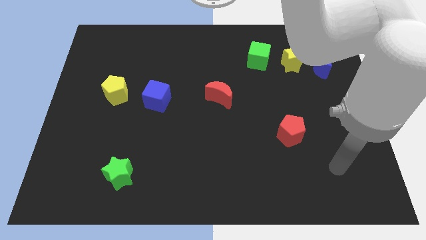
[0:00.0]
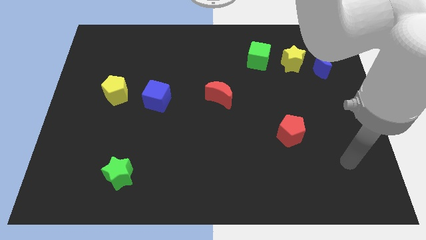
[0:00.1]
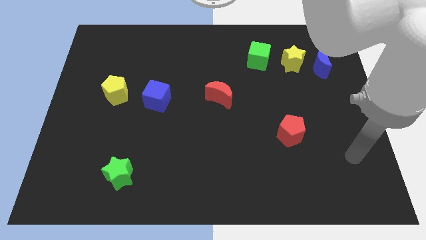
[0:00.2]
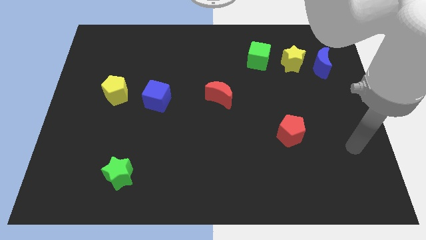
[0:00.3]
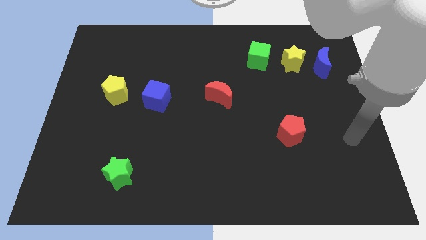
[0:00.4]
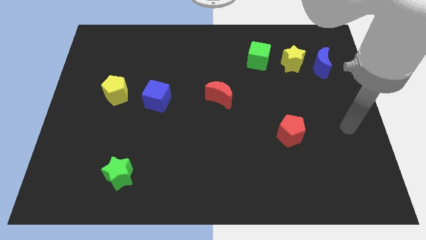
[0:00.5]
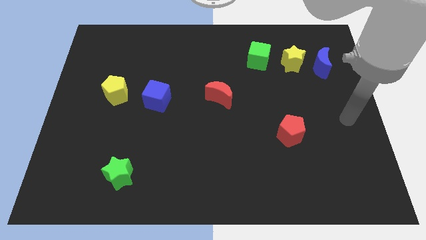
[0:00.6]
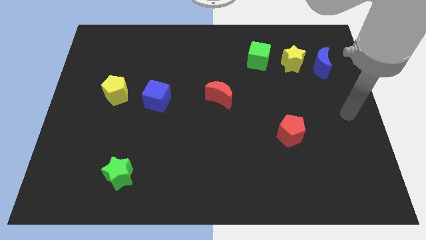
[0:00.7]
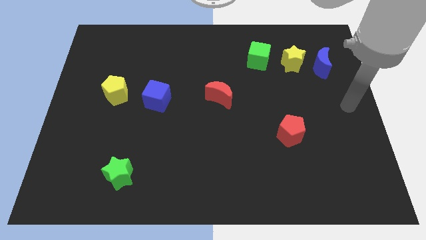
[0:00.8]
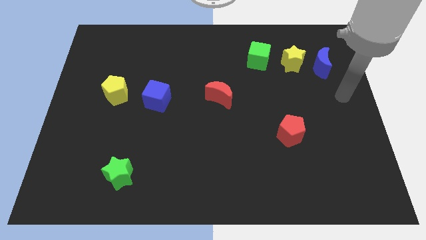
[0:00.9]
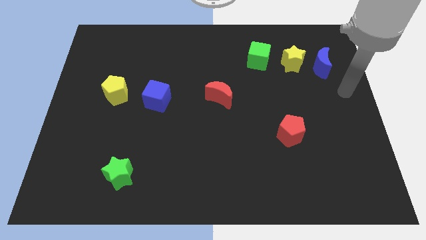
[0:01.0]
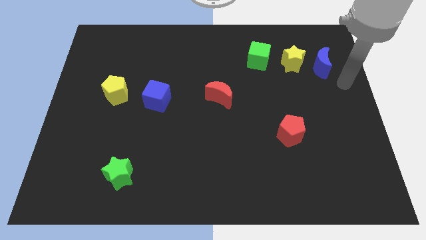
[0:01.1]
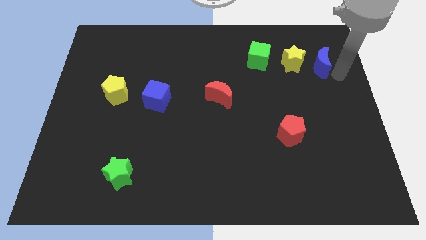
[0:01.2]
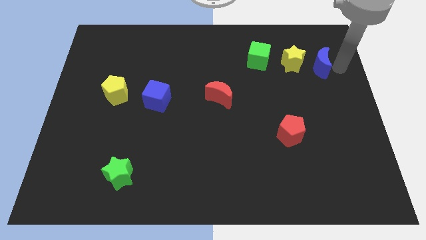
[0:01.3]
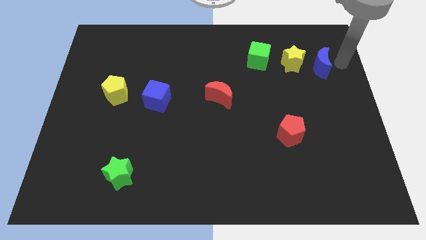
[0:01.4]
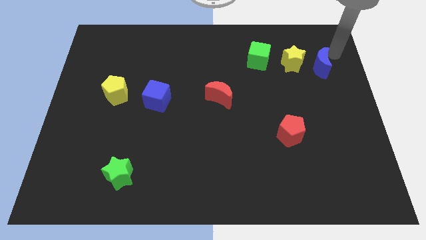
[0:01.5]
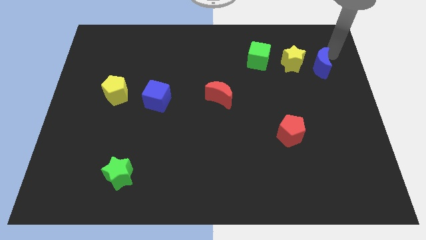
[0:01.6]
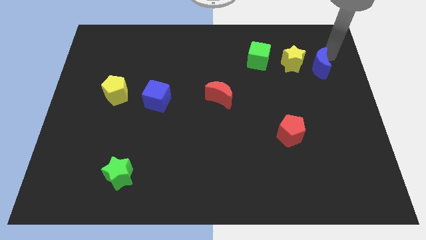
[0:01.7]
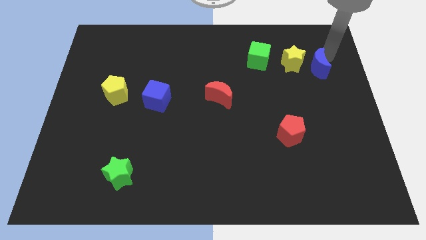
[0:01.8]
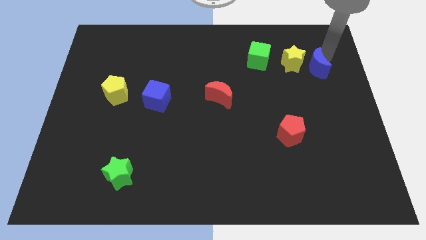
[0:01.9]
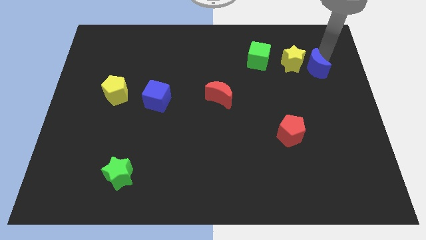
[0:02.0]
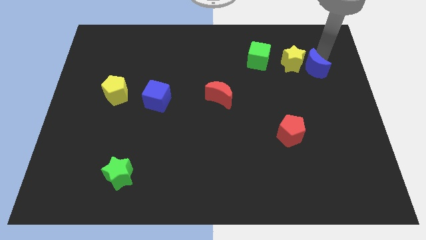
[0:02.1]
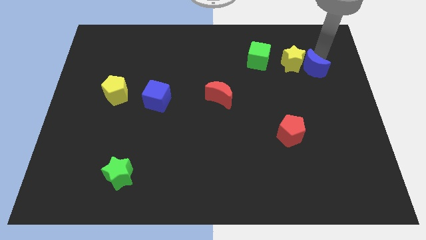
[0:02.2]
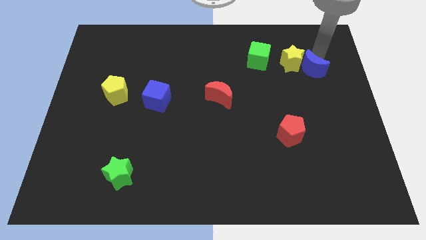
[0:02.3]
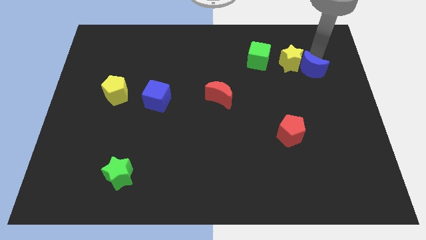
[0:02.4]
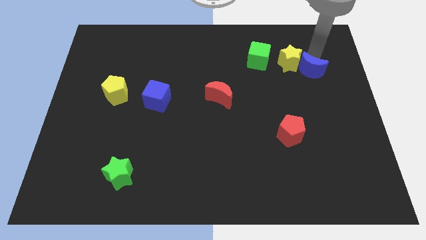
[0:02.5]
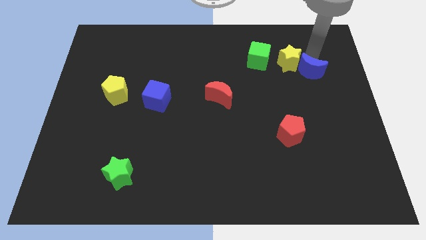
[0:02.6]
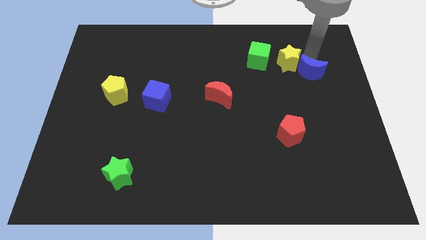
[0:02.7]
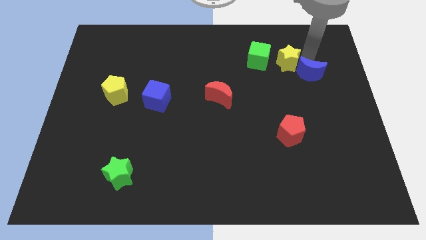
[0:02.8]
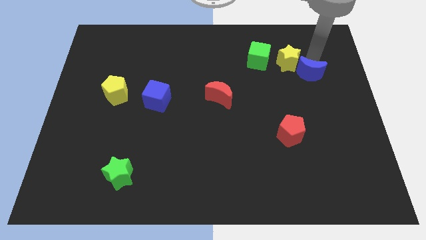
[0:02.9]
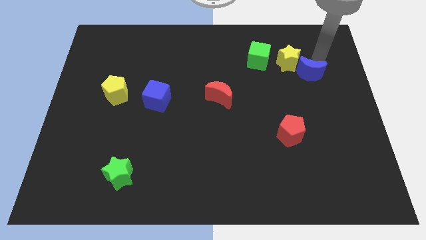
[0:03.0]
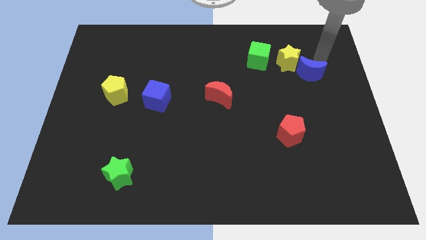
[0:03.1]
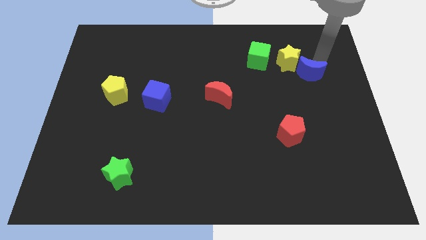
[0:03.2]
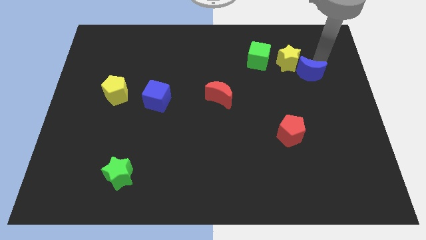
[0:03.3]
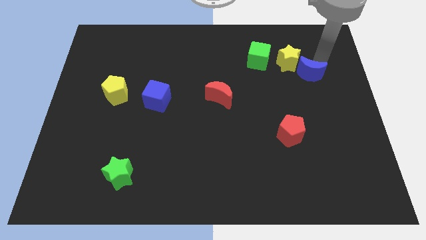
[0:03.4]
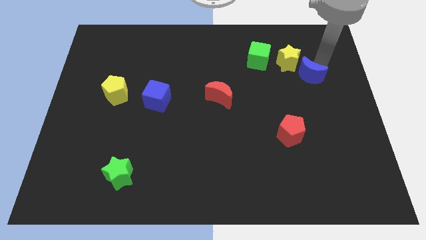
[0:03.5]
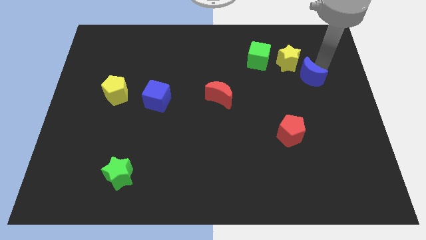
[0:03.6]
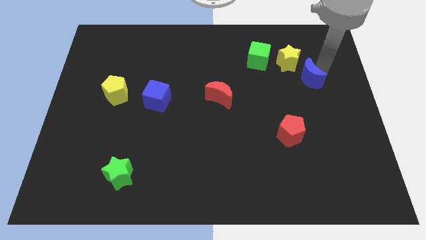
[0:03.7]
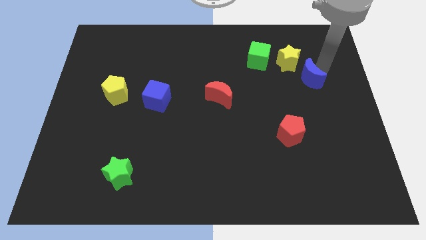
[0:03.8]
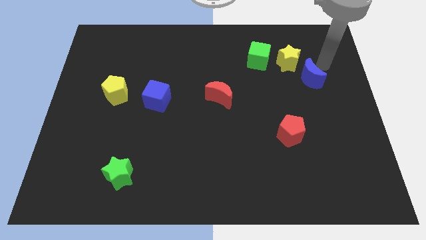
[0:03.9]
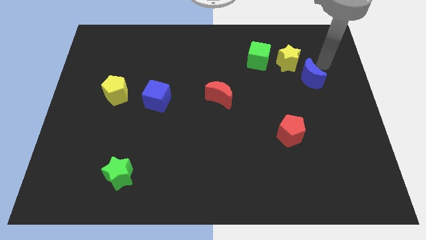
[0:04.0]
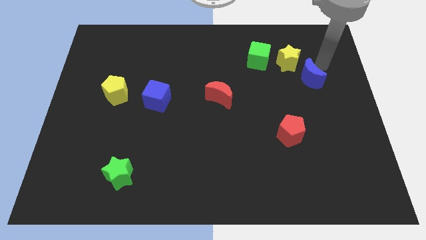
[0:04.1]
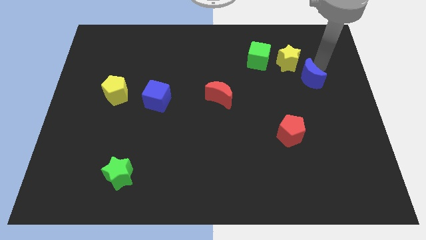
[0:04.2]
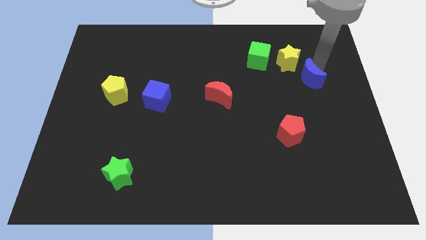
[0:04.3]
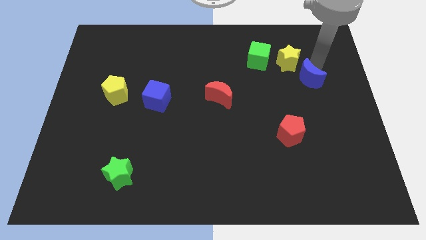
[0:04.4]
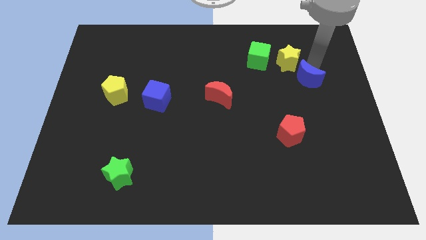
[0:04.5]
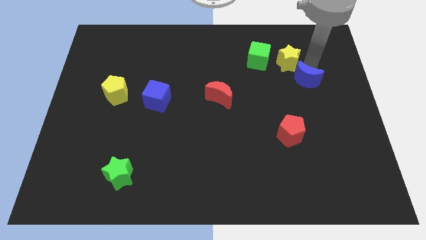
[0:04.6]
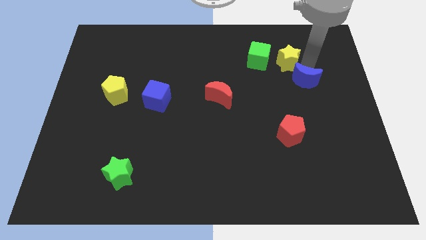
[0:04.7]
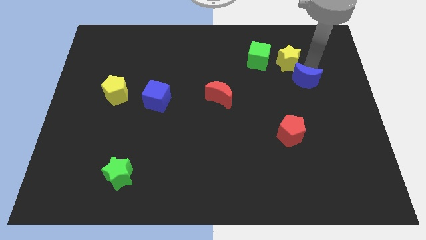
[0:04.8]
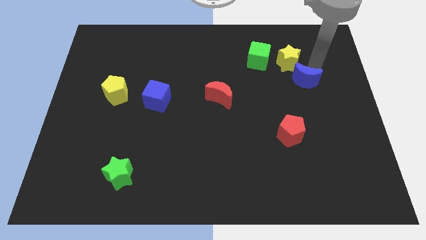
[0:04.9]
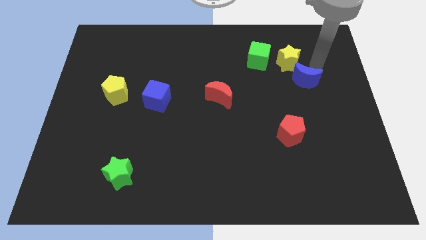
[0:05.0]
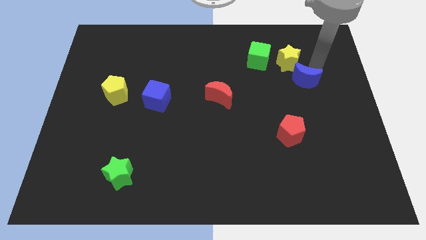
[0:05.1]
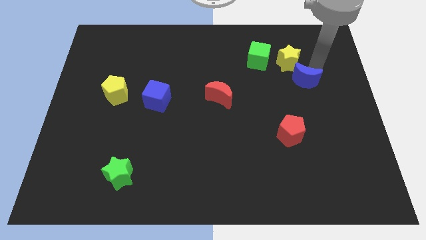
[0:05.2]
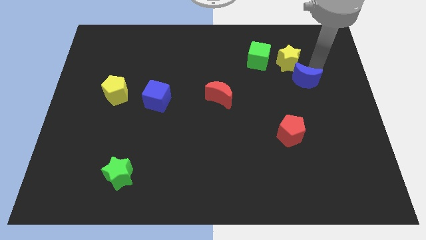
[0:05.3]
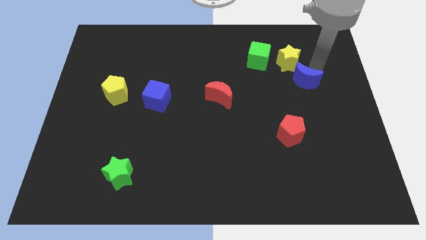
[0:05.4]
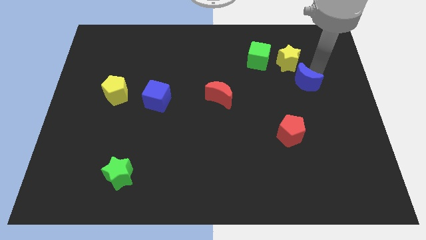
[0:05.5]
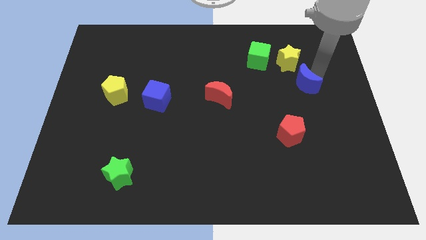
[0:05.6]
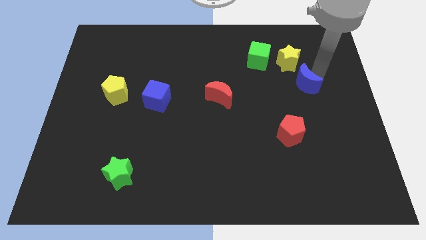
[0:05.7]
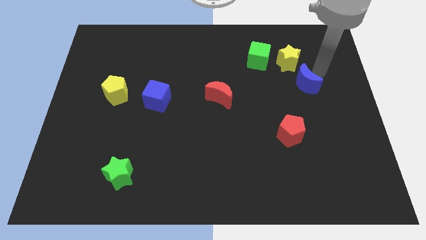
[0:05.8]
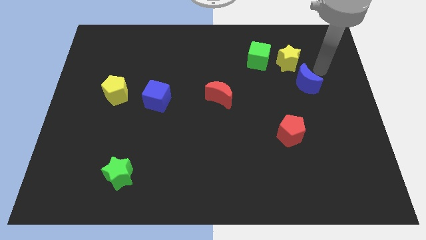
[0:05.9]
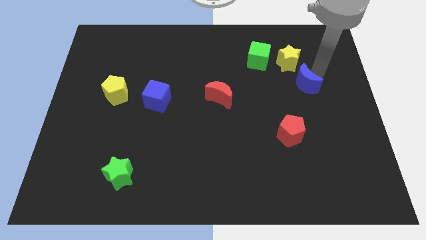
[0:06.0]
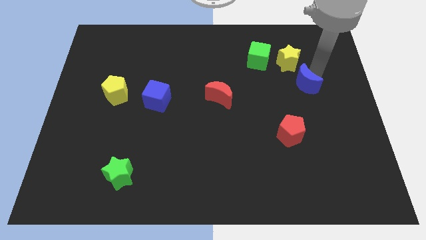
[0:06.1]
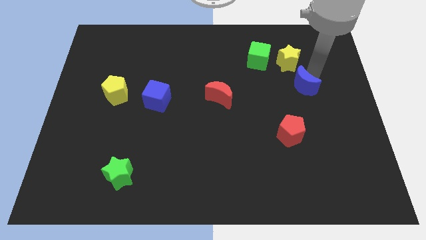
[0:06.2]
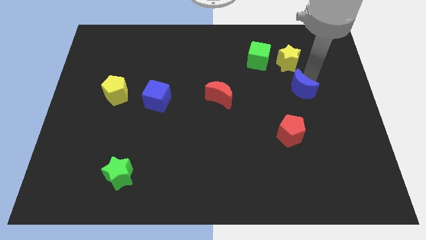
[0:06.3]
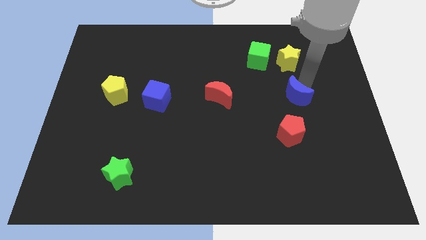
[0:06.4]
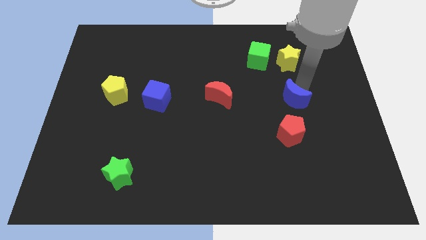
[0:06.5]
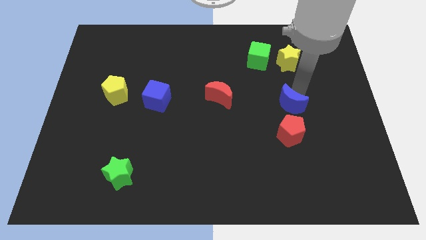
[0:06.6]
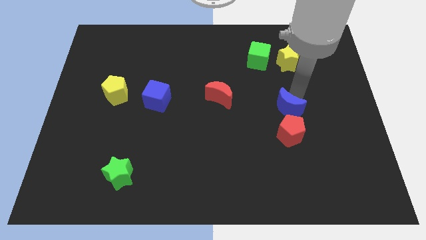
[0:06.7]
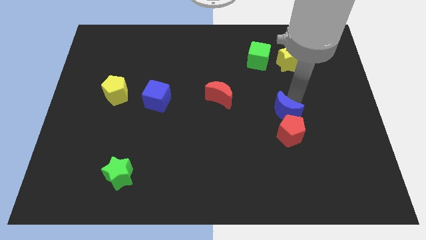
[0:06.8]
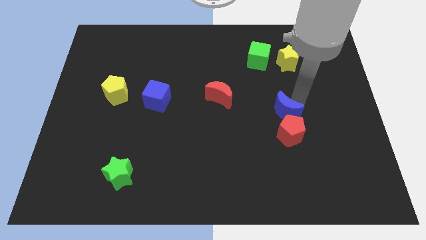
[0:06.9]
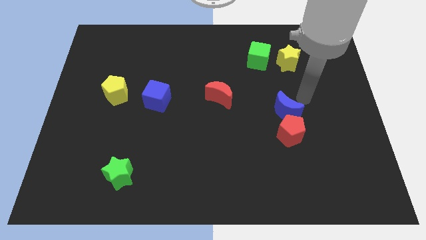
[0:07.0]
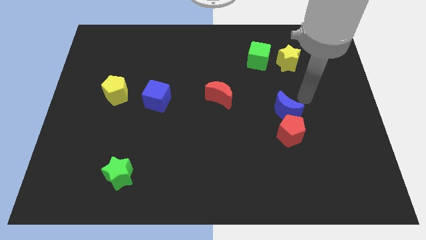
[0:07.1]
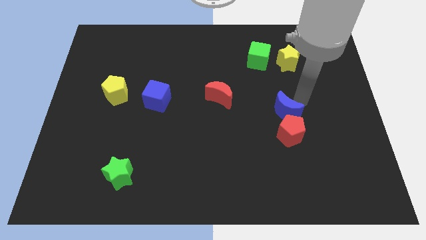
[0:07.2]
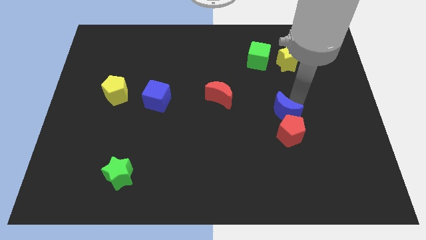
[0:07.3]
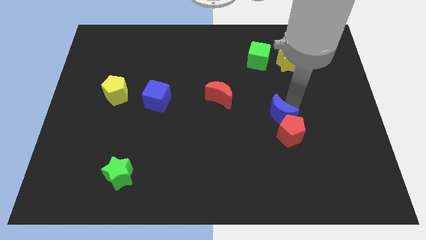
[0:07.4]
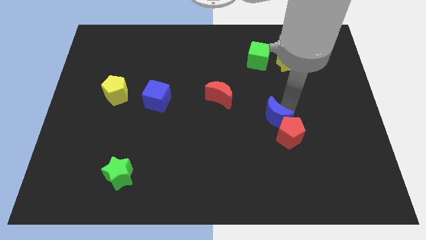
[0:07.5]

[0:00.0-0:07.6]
push the blue moon diagonally downwards and left

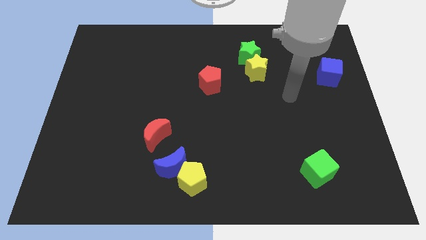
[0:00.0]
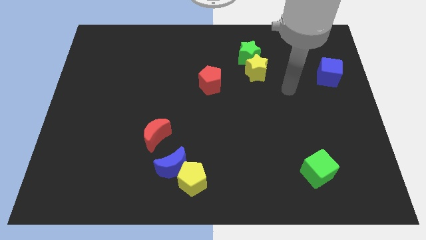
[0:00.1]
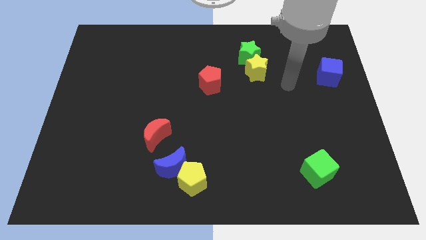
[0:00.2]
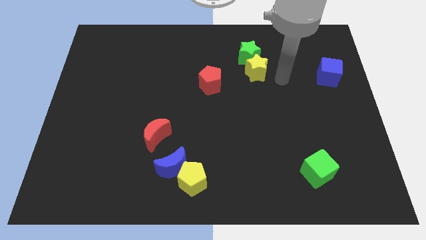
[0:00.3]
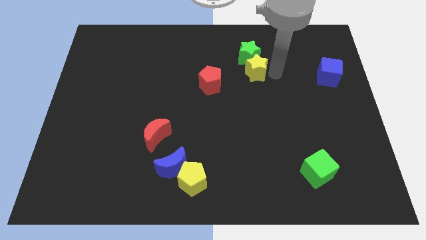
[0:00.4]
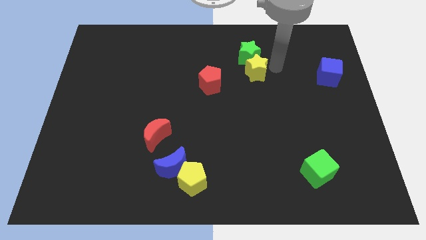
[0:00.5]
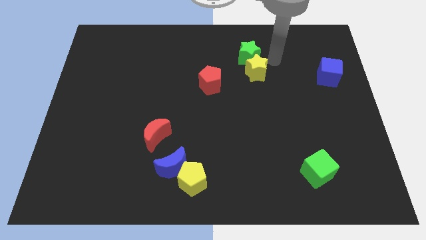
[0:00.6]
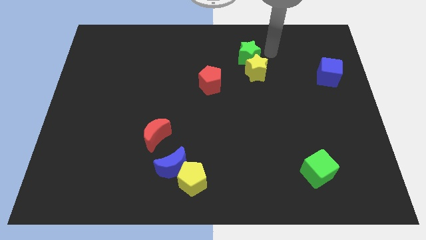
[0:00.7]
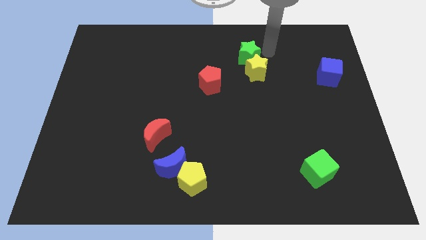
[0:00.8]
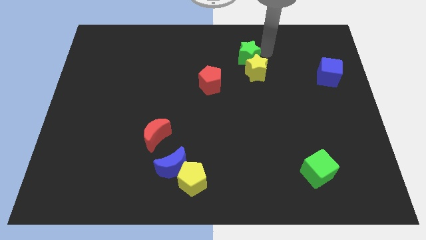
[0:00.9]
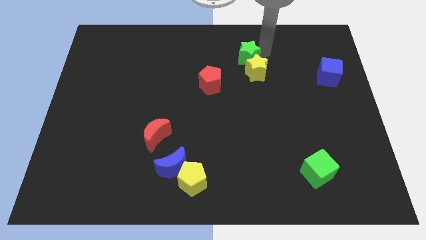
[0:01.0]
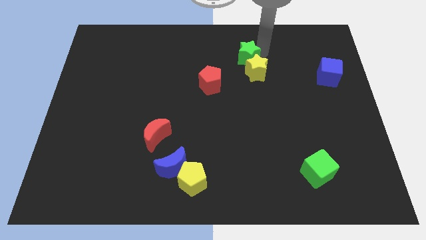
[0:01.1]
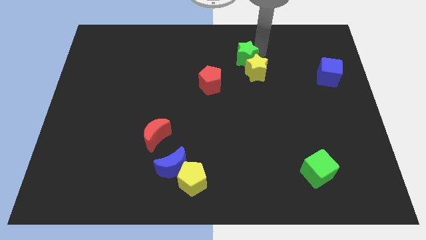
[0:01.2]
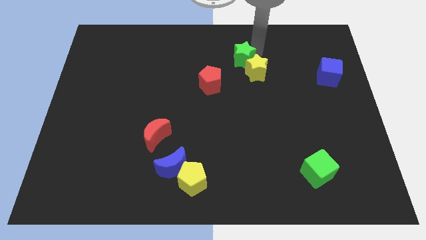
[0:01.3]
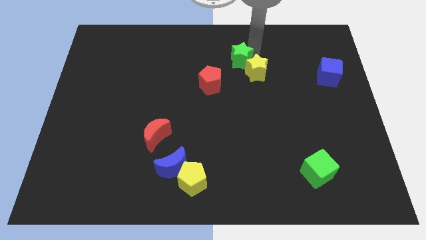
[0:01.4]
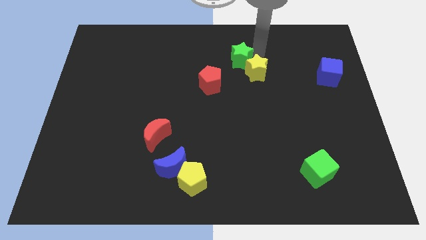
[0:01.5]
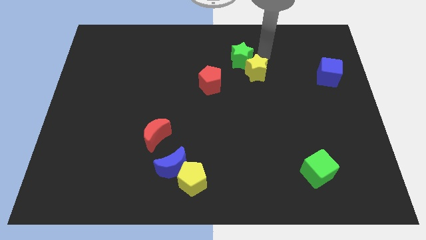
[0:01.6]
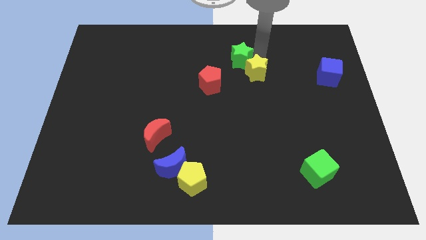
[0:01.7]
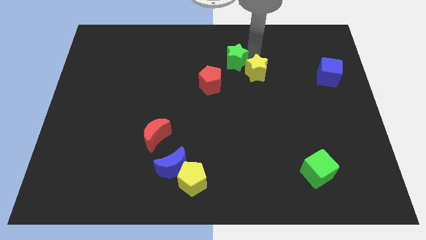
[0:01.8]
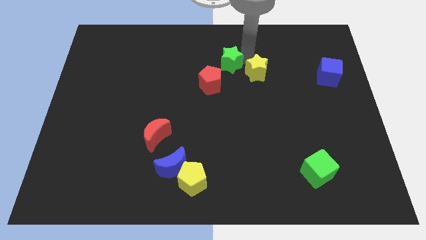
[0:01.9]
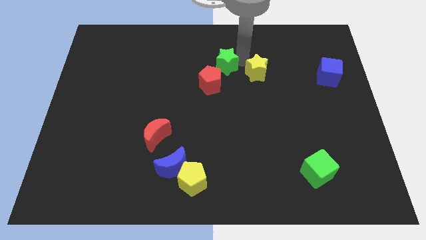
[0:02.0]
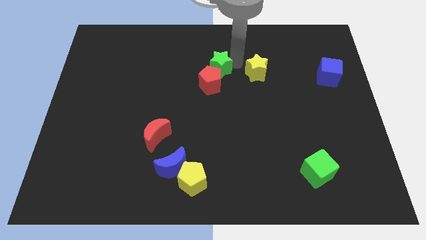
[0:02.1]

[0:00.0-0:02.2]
push the green star diagonally downwards and to the left slightly
